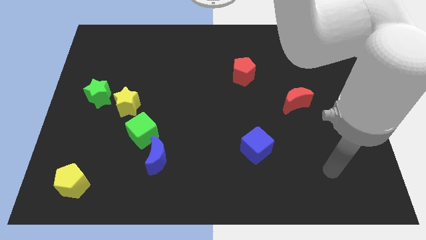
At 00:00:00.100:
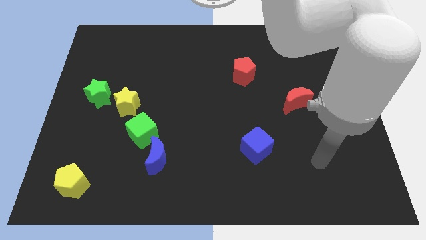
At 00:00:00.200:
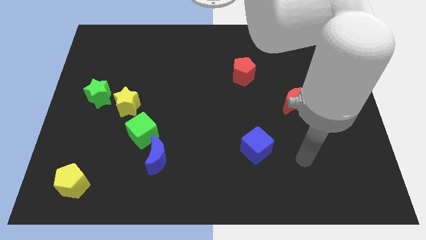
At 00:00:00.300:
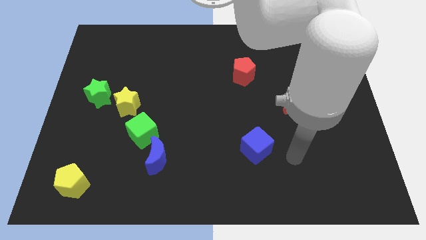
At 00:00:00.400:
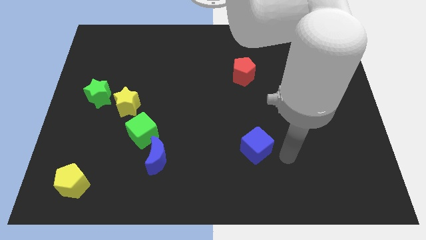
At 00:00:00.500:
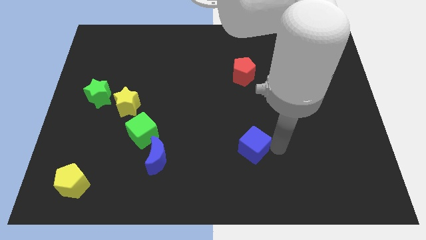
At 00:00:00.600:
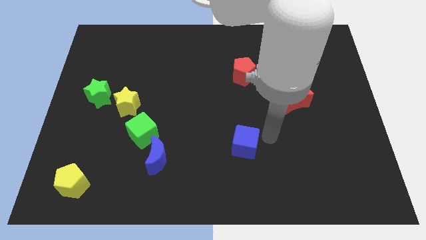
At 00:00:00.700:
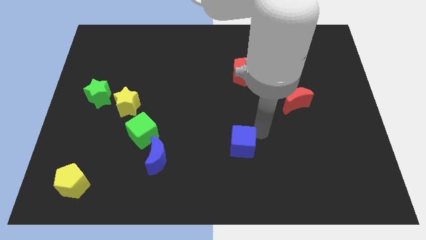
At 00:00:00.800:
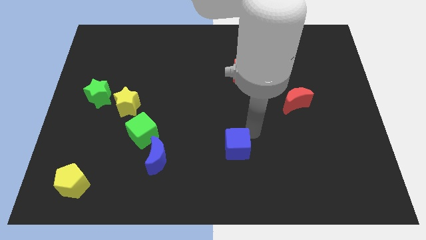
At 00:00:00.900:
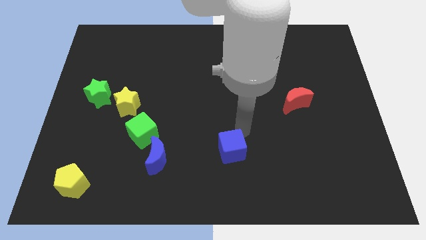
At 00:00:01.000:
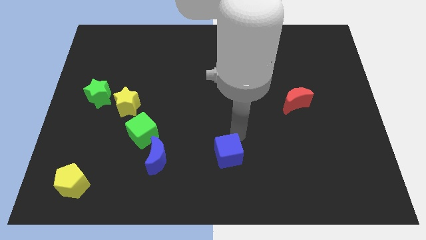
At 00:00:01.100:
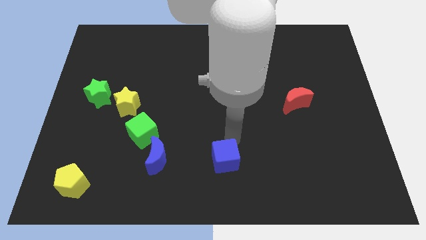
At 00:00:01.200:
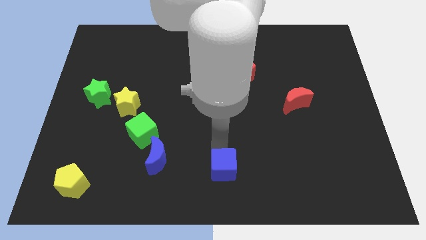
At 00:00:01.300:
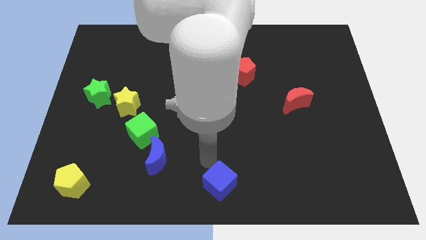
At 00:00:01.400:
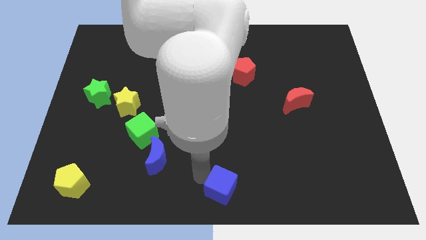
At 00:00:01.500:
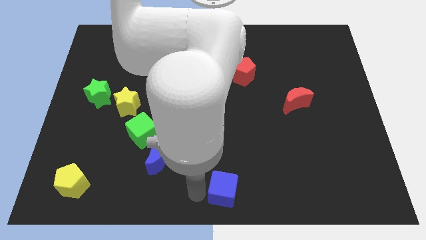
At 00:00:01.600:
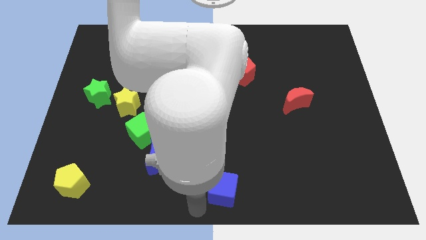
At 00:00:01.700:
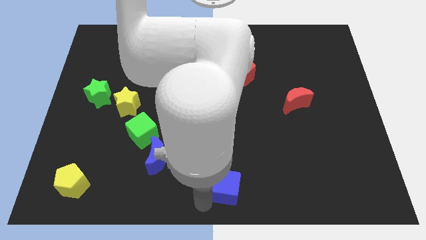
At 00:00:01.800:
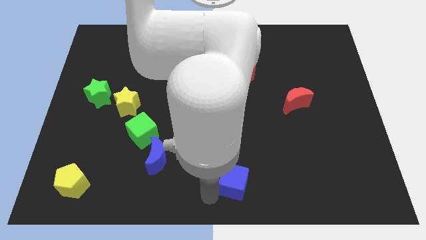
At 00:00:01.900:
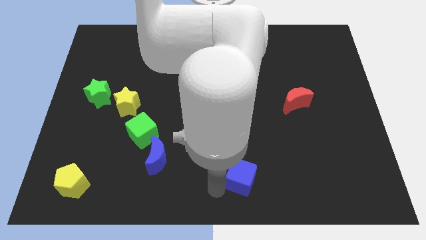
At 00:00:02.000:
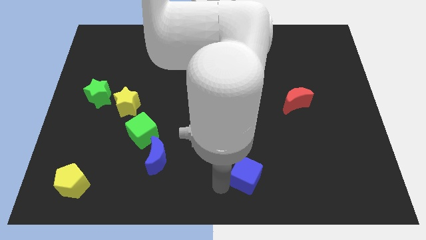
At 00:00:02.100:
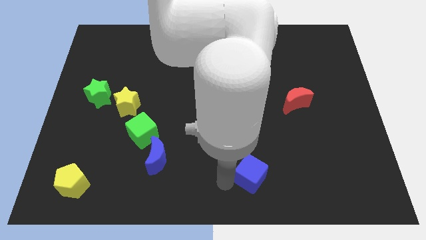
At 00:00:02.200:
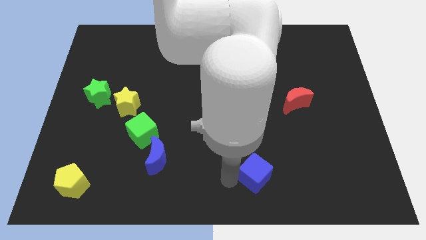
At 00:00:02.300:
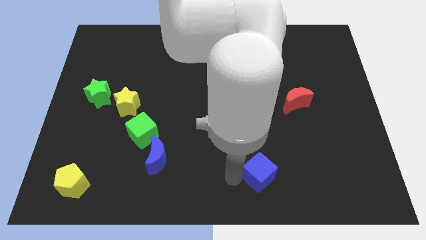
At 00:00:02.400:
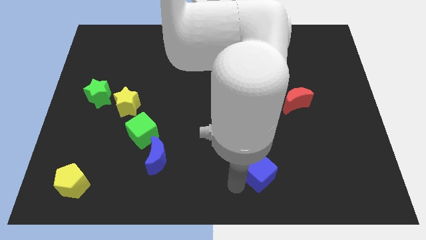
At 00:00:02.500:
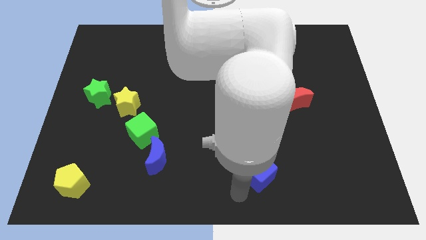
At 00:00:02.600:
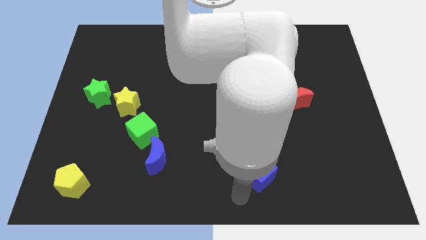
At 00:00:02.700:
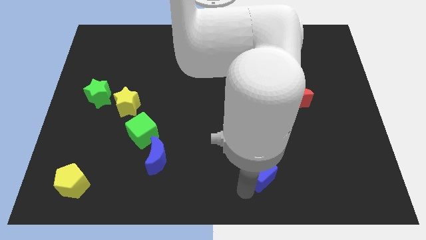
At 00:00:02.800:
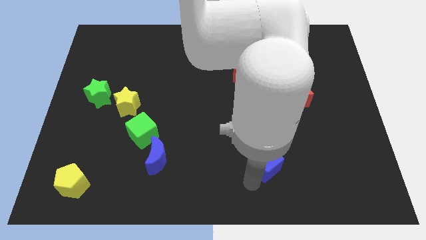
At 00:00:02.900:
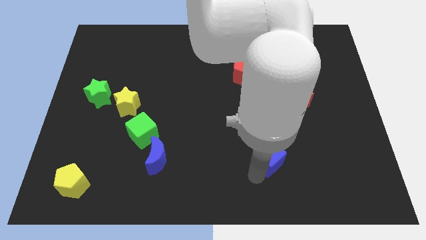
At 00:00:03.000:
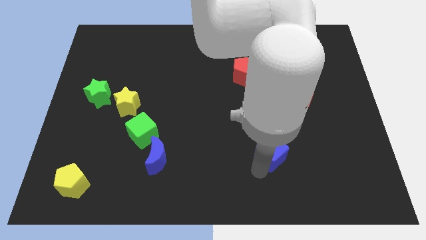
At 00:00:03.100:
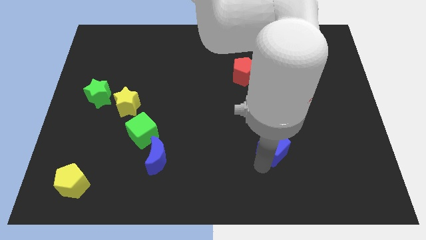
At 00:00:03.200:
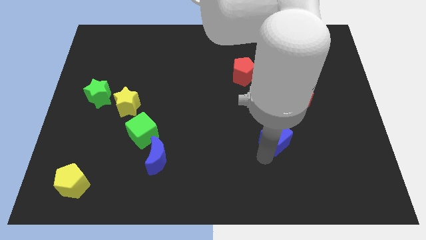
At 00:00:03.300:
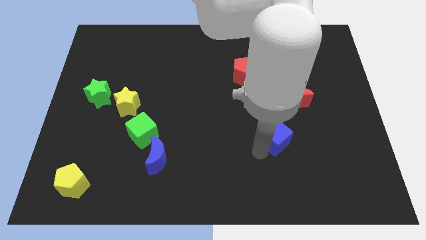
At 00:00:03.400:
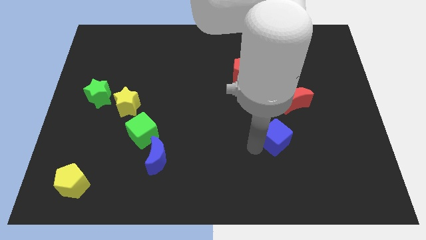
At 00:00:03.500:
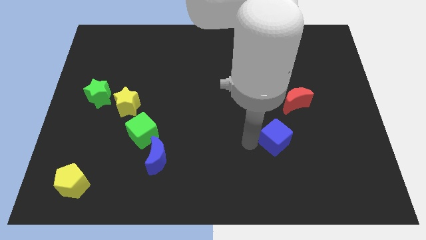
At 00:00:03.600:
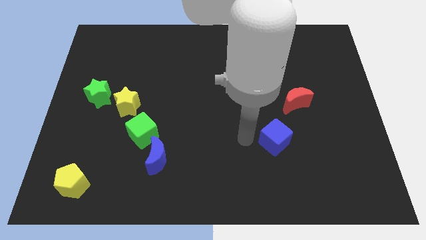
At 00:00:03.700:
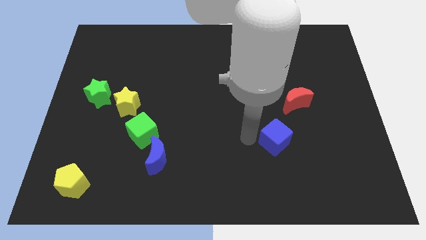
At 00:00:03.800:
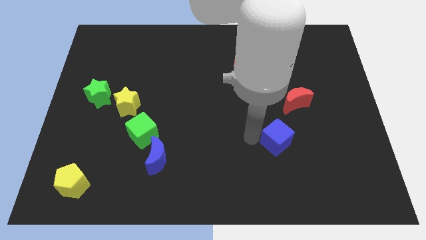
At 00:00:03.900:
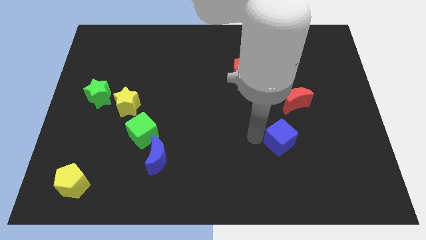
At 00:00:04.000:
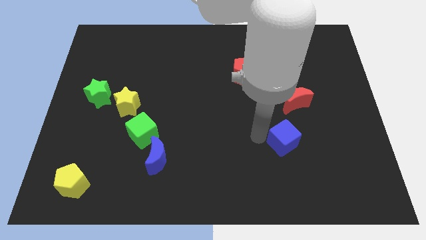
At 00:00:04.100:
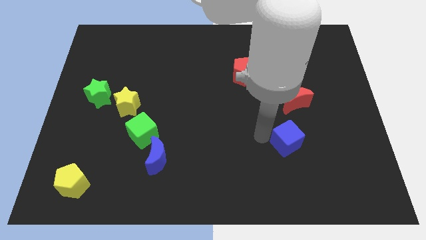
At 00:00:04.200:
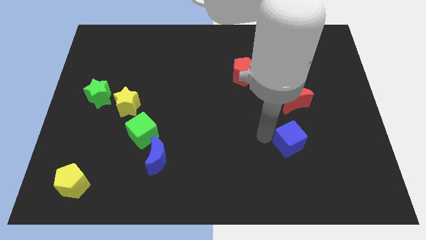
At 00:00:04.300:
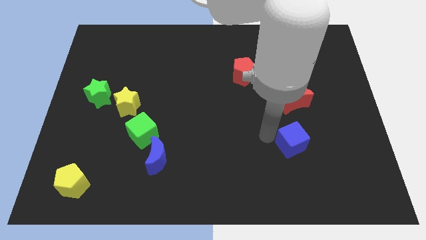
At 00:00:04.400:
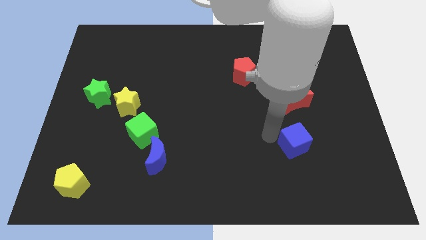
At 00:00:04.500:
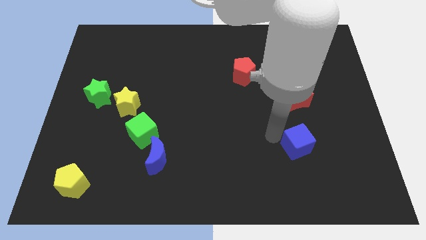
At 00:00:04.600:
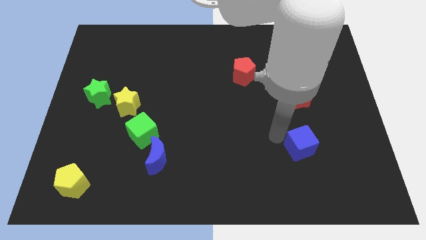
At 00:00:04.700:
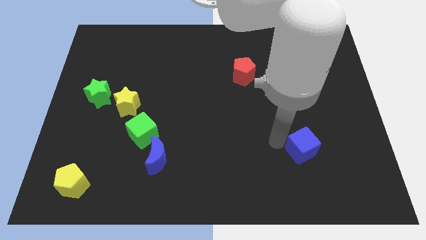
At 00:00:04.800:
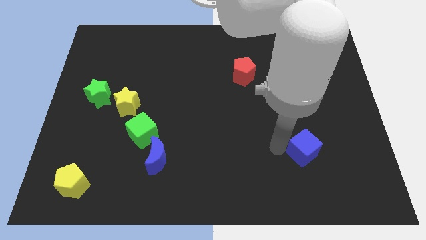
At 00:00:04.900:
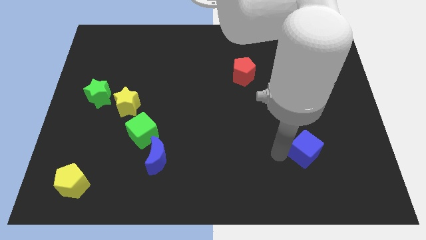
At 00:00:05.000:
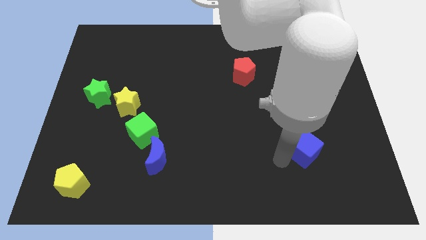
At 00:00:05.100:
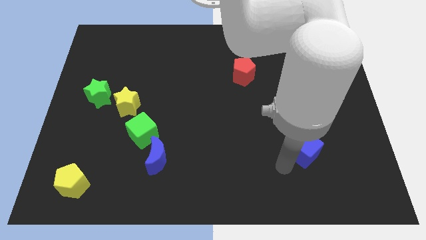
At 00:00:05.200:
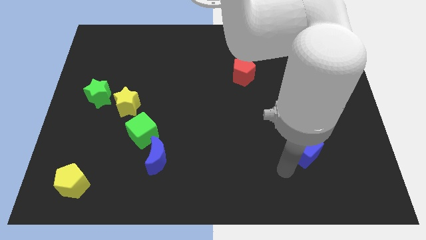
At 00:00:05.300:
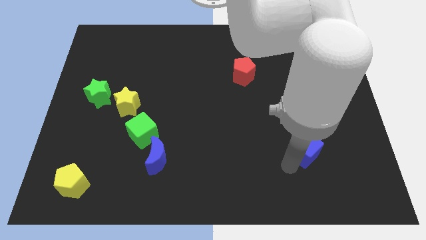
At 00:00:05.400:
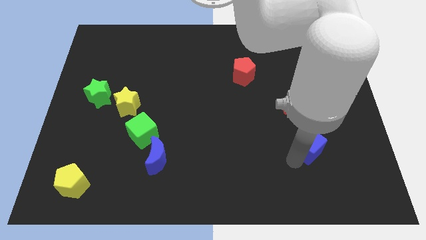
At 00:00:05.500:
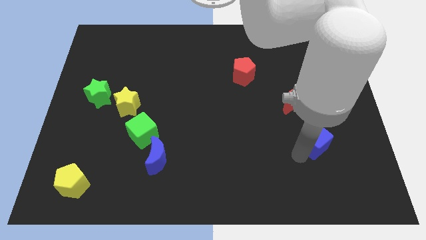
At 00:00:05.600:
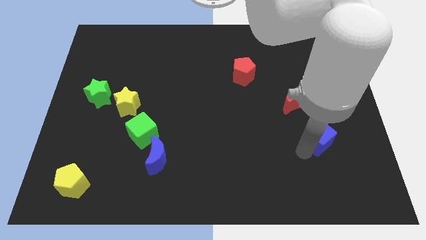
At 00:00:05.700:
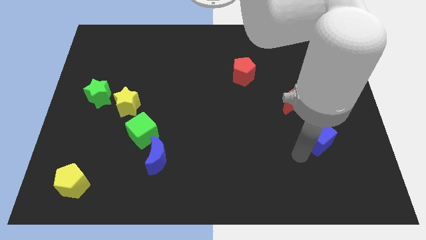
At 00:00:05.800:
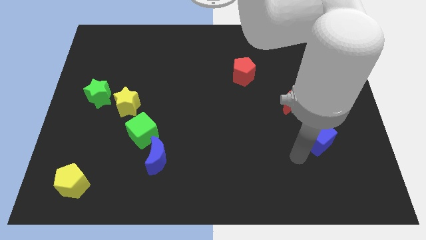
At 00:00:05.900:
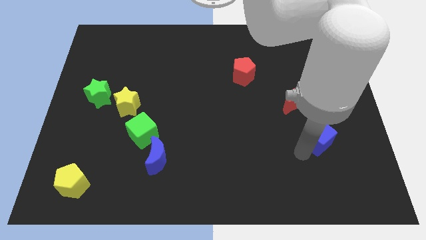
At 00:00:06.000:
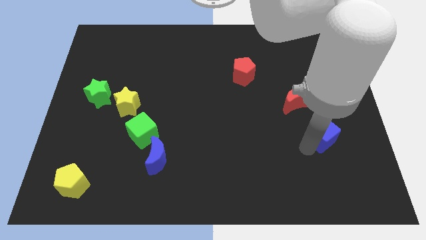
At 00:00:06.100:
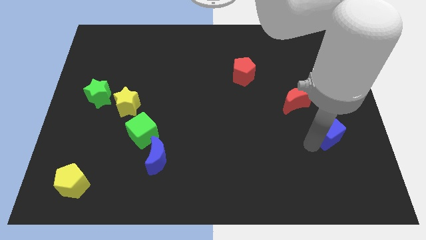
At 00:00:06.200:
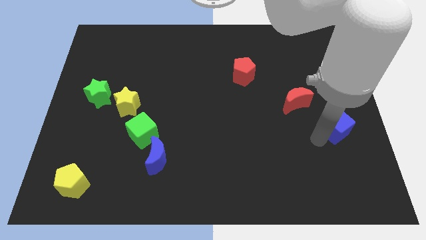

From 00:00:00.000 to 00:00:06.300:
push the blue cube to the right side of the board
